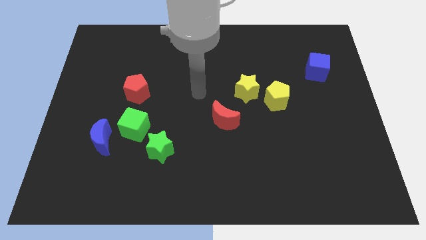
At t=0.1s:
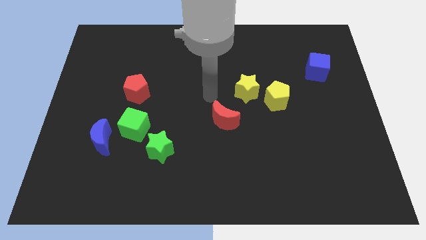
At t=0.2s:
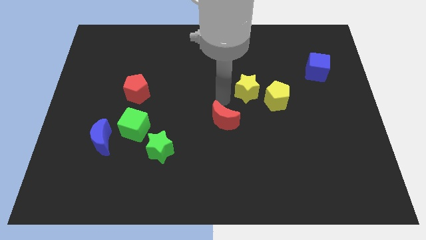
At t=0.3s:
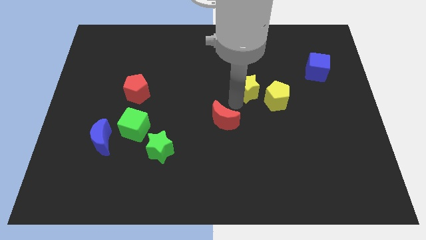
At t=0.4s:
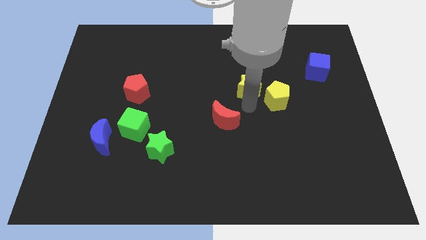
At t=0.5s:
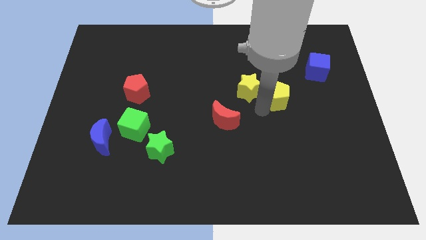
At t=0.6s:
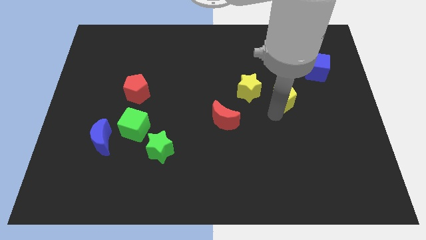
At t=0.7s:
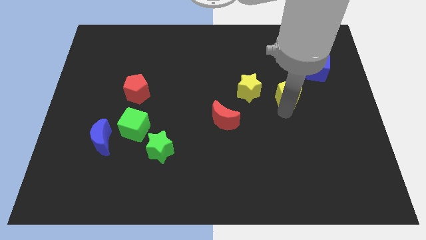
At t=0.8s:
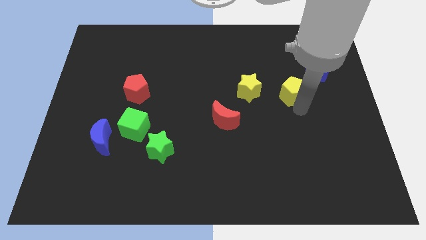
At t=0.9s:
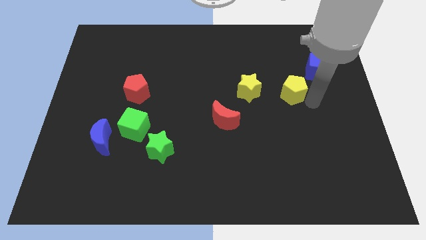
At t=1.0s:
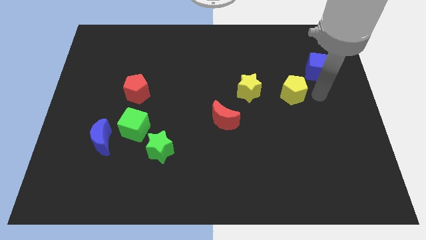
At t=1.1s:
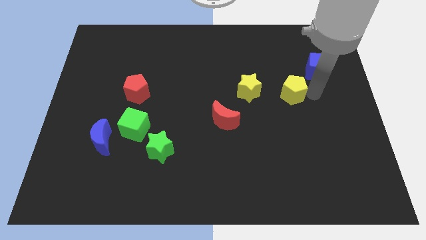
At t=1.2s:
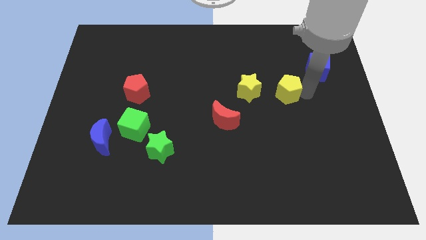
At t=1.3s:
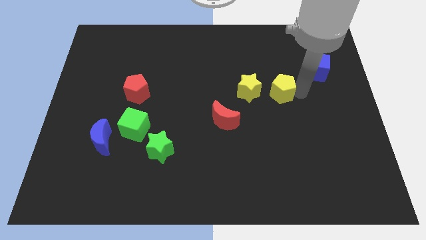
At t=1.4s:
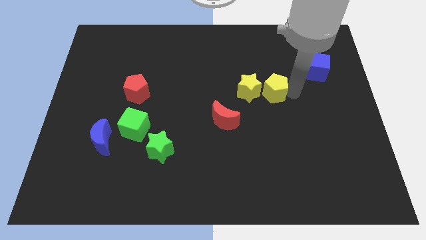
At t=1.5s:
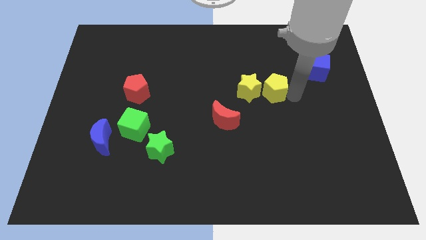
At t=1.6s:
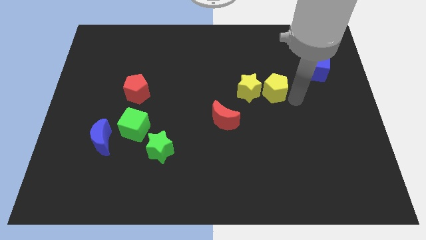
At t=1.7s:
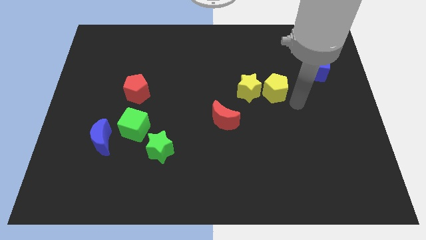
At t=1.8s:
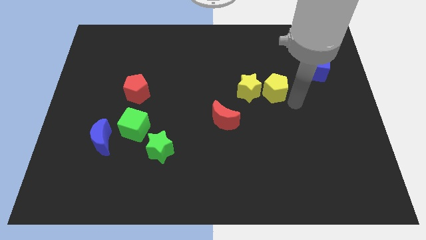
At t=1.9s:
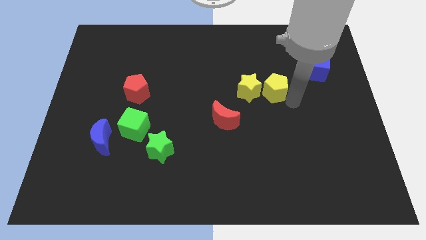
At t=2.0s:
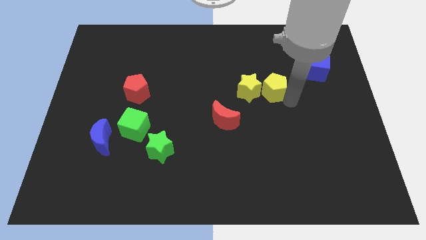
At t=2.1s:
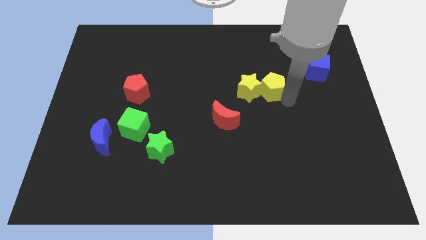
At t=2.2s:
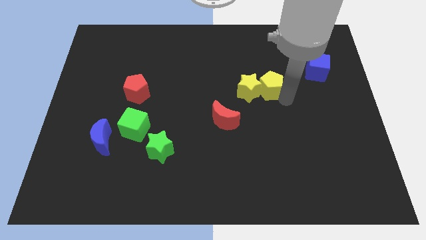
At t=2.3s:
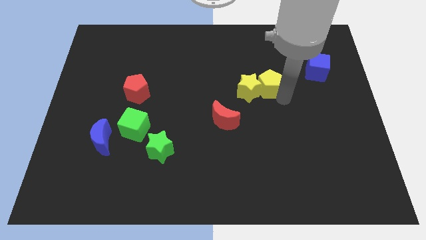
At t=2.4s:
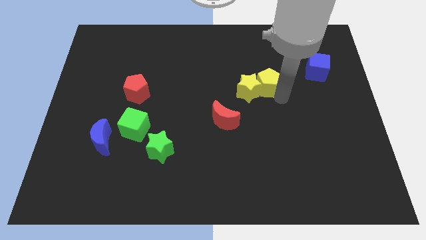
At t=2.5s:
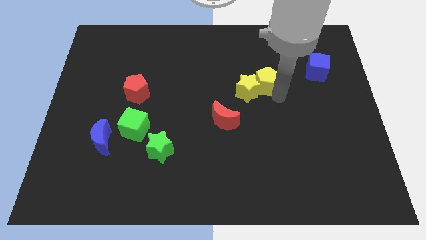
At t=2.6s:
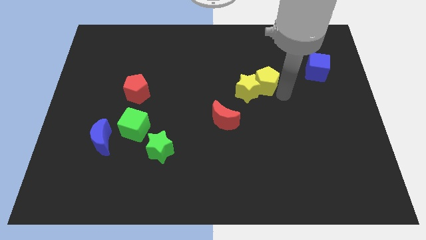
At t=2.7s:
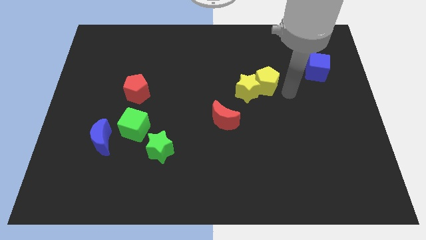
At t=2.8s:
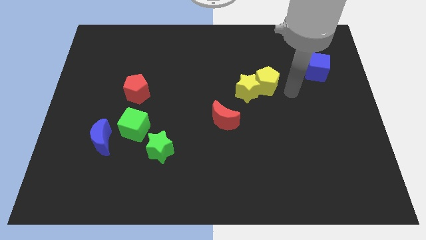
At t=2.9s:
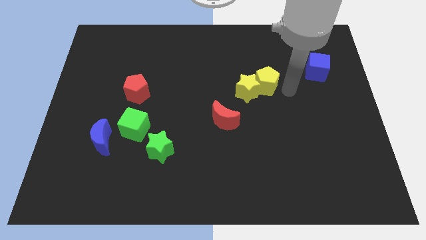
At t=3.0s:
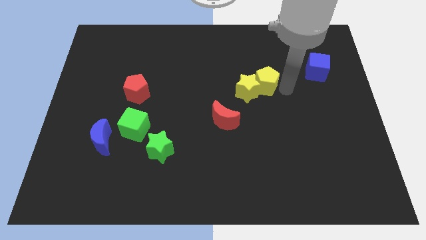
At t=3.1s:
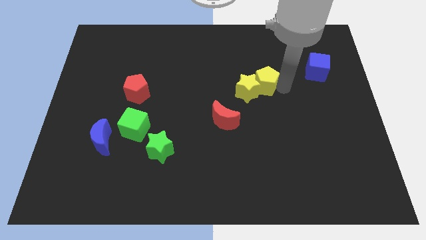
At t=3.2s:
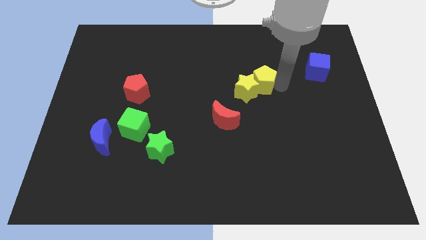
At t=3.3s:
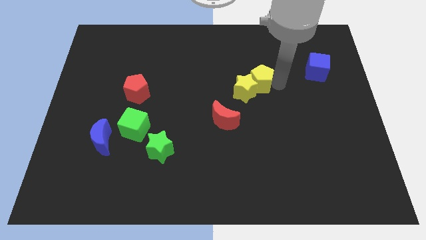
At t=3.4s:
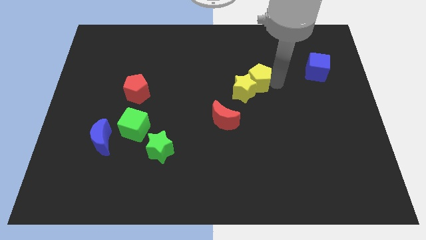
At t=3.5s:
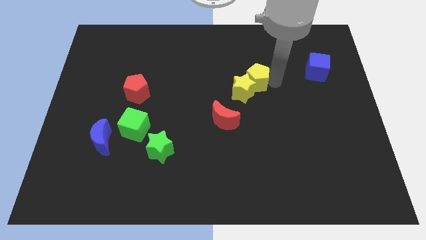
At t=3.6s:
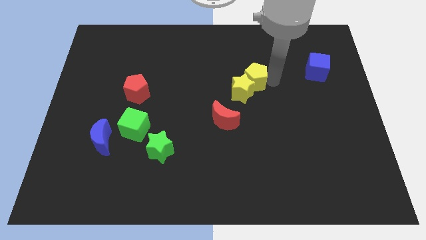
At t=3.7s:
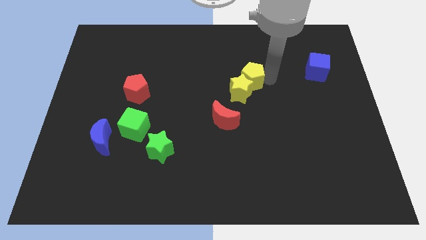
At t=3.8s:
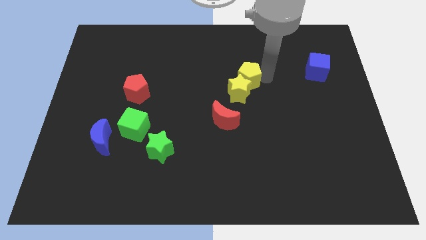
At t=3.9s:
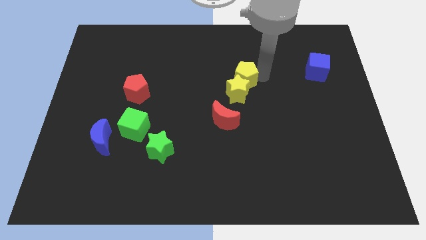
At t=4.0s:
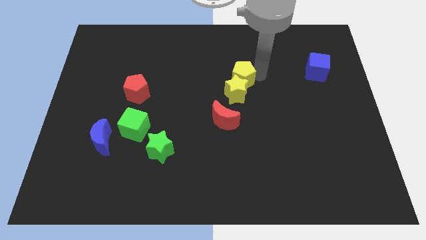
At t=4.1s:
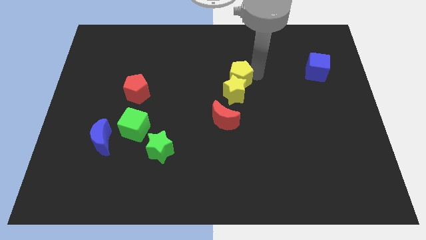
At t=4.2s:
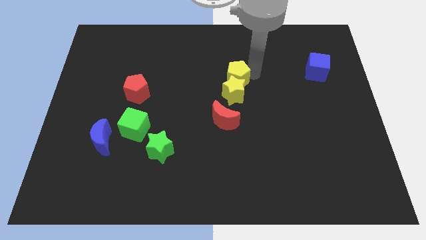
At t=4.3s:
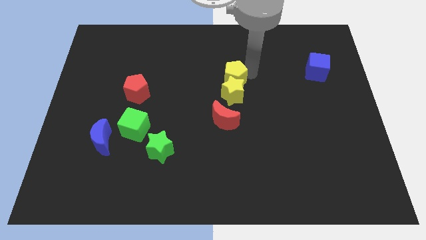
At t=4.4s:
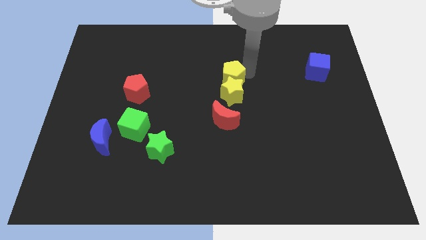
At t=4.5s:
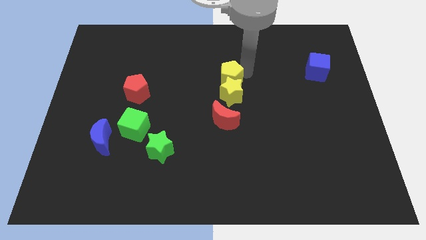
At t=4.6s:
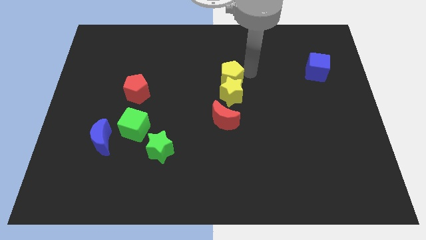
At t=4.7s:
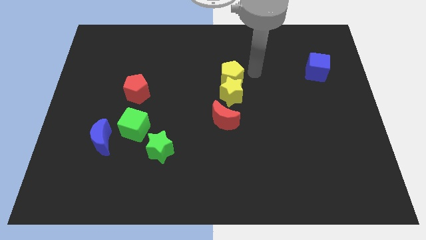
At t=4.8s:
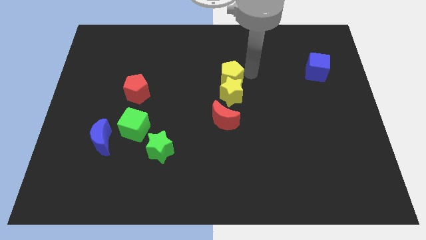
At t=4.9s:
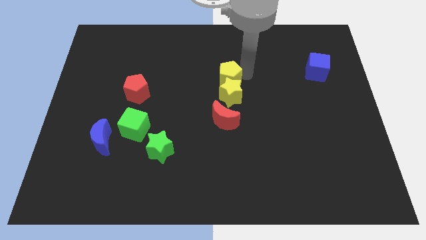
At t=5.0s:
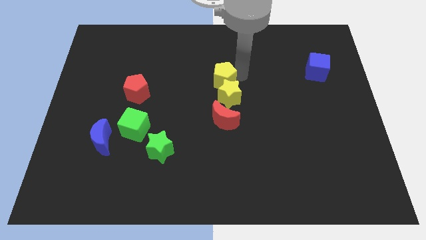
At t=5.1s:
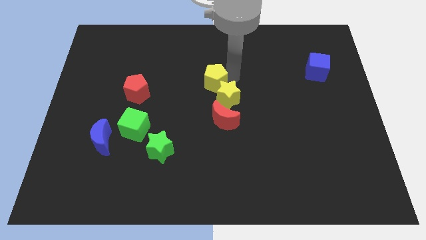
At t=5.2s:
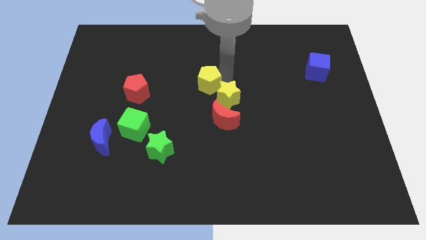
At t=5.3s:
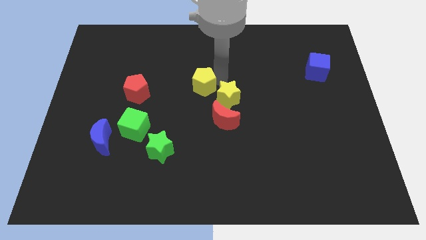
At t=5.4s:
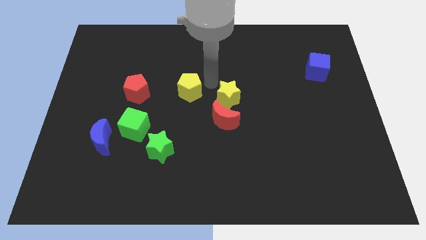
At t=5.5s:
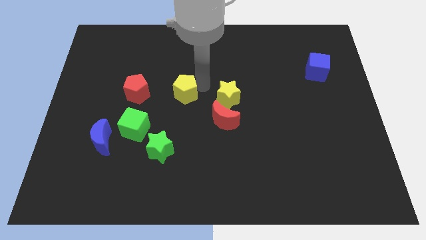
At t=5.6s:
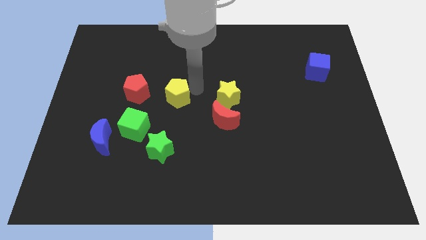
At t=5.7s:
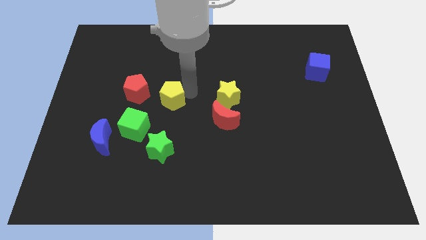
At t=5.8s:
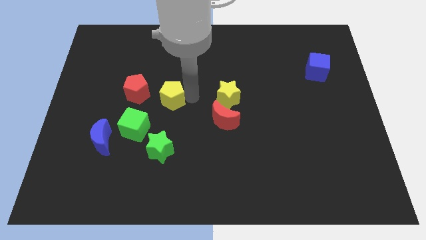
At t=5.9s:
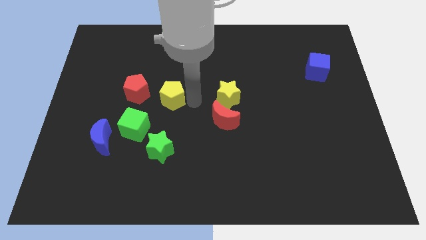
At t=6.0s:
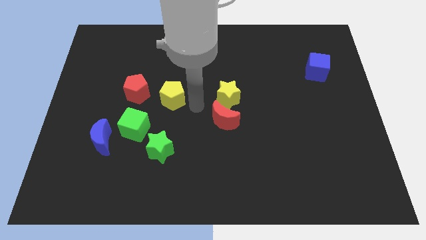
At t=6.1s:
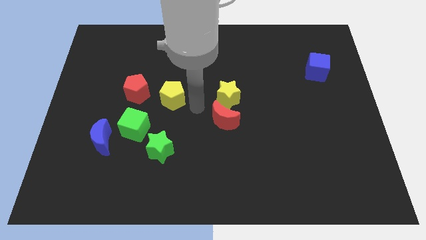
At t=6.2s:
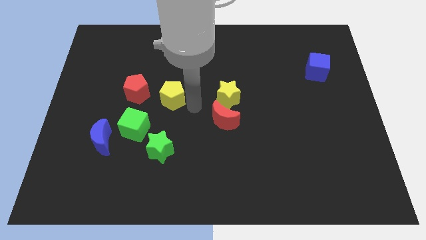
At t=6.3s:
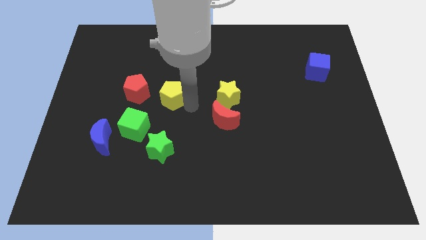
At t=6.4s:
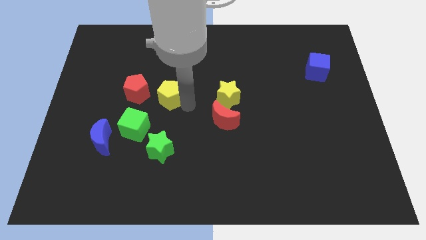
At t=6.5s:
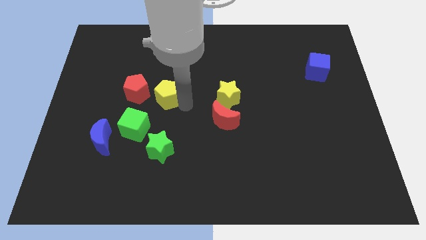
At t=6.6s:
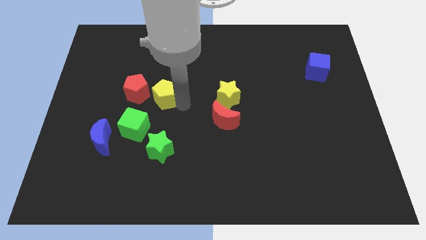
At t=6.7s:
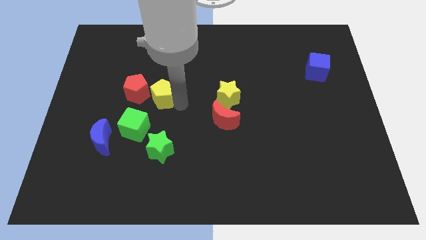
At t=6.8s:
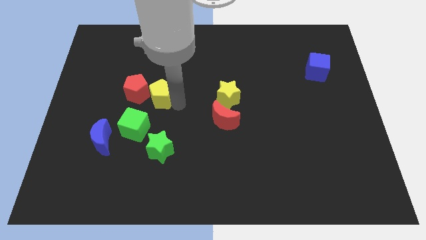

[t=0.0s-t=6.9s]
put the yellow pentagon to the red pentagon

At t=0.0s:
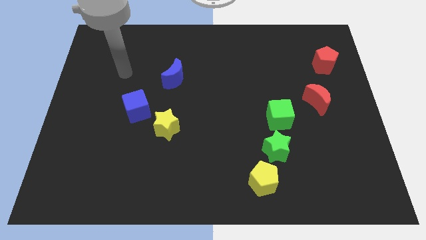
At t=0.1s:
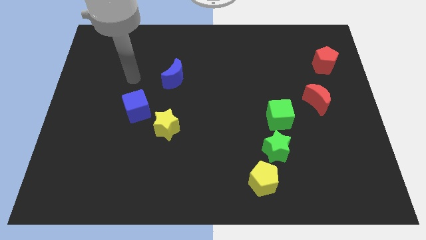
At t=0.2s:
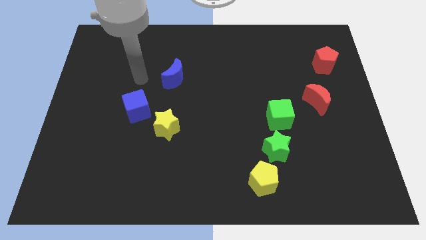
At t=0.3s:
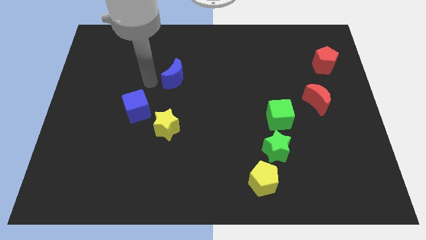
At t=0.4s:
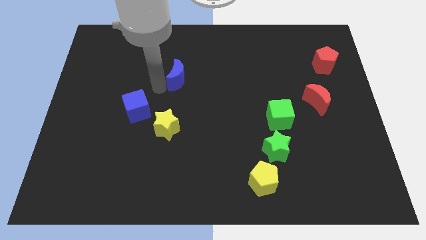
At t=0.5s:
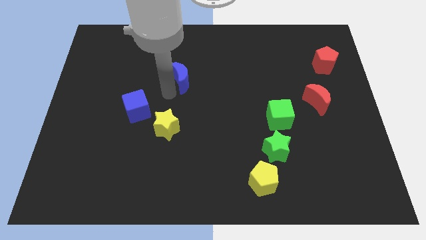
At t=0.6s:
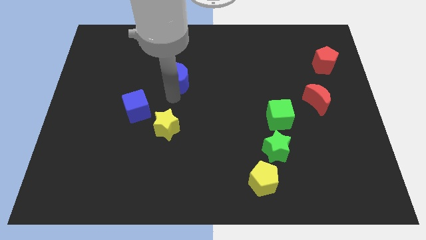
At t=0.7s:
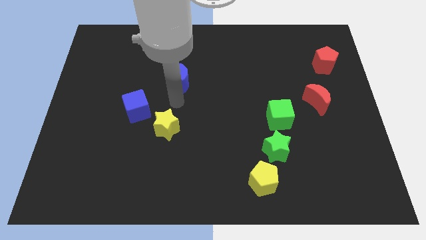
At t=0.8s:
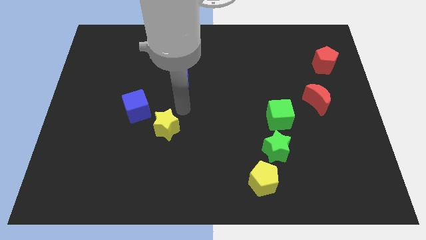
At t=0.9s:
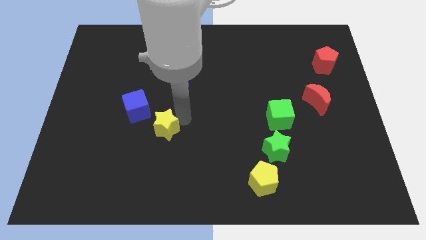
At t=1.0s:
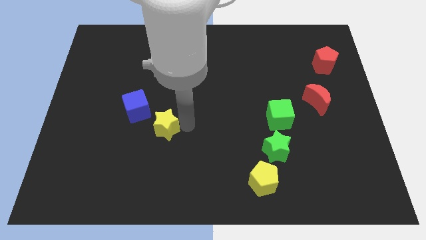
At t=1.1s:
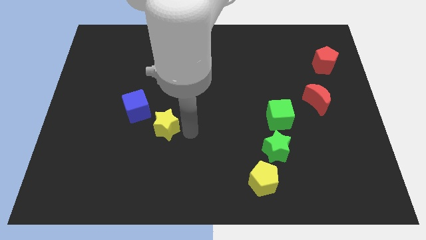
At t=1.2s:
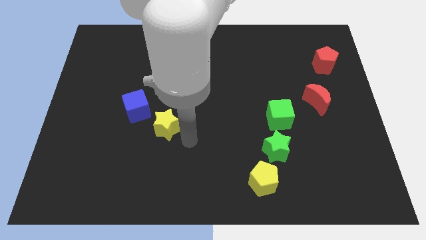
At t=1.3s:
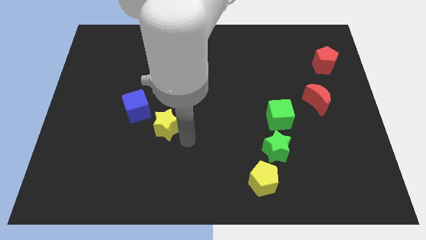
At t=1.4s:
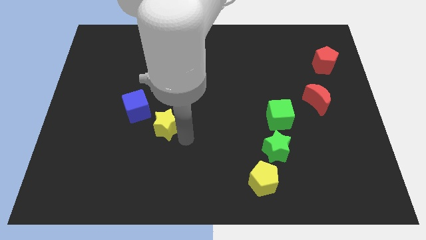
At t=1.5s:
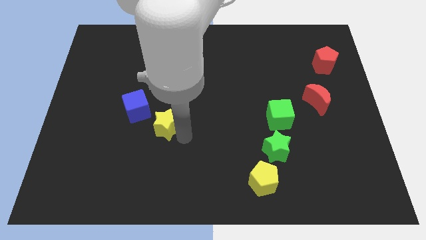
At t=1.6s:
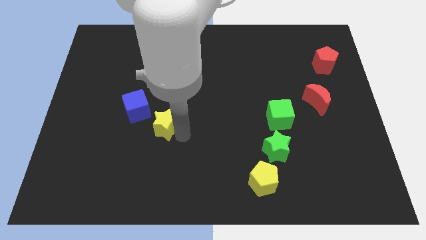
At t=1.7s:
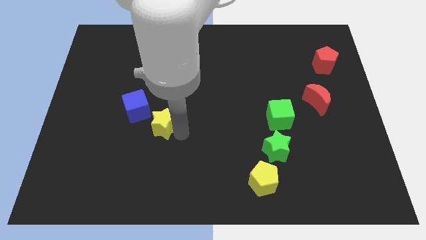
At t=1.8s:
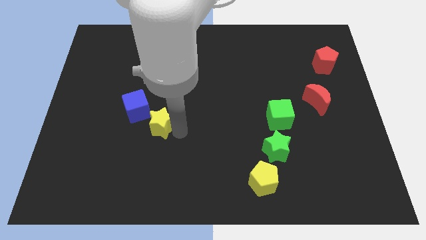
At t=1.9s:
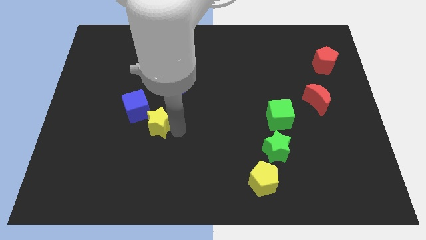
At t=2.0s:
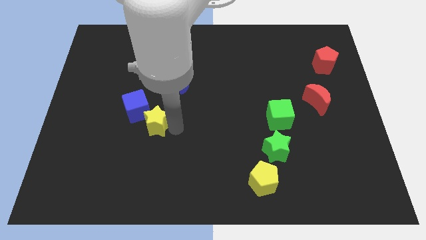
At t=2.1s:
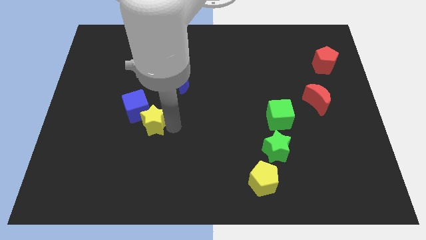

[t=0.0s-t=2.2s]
slide the yellow star next to the blue cube
